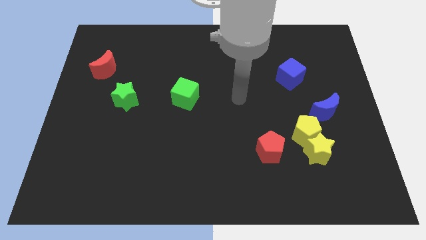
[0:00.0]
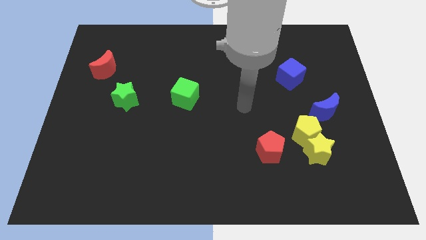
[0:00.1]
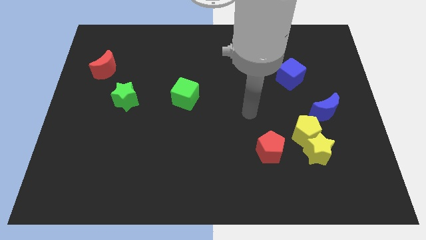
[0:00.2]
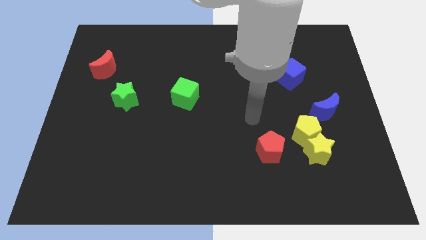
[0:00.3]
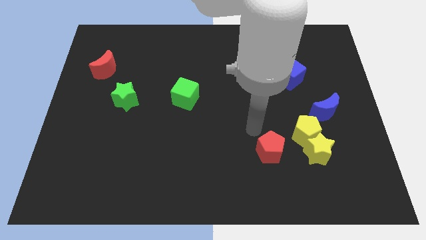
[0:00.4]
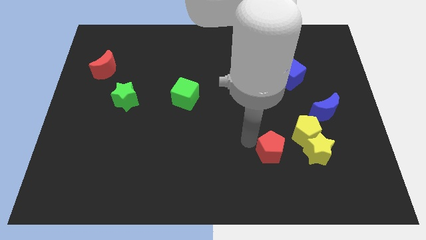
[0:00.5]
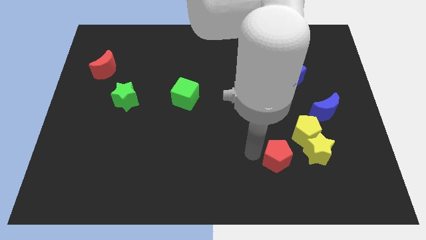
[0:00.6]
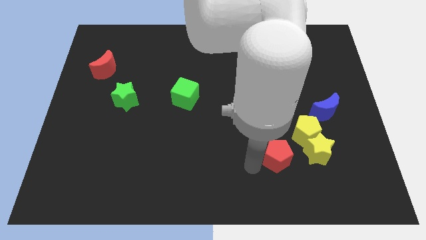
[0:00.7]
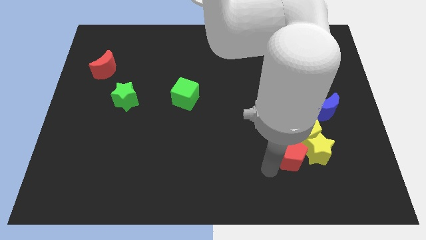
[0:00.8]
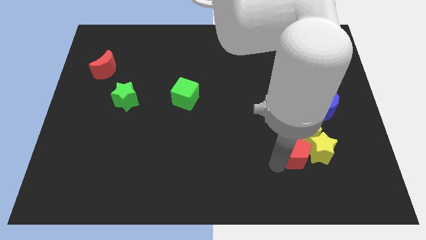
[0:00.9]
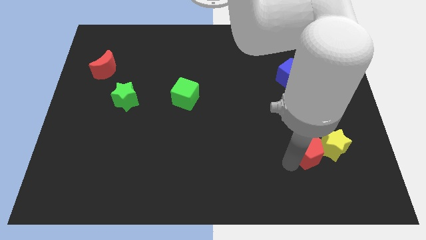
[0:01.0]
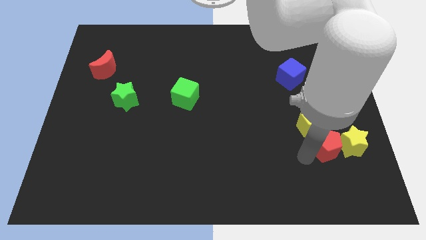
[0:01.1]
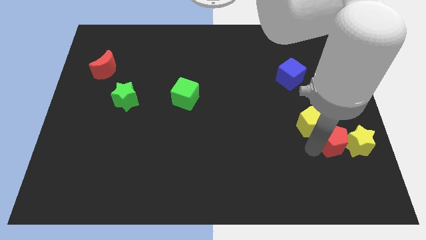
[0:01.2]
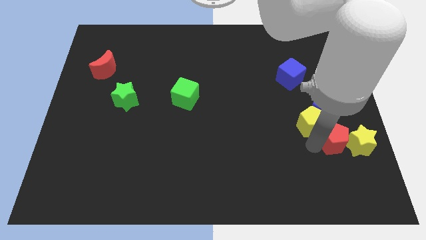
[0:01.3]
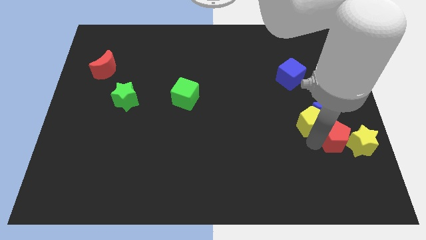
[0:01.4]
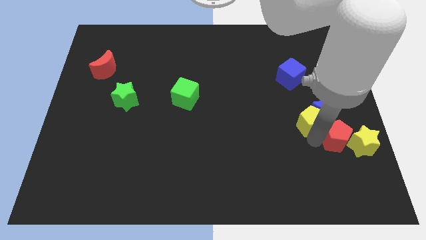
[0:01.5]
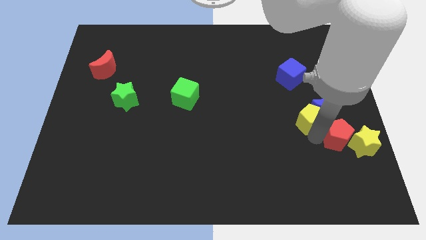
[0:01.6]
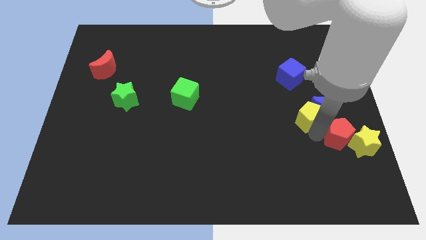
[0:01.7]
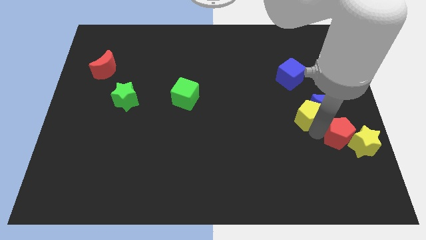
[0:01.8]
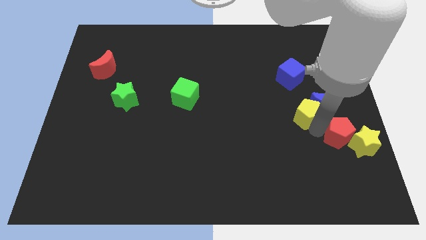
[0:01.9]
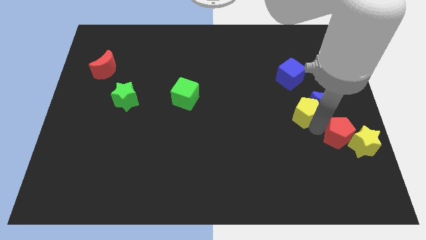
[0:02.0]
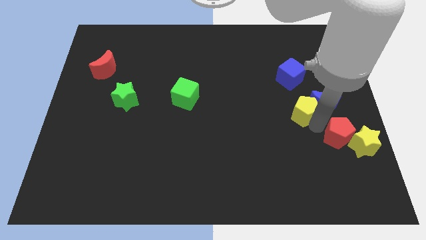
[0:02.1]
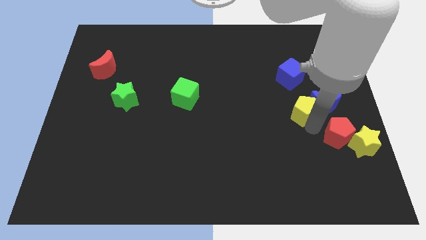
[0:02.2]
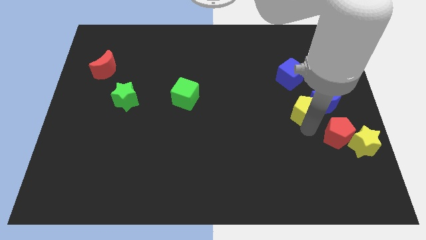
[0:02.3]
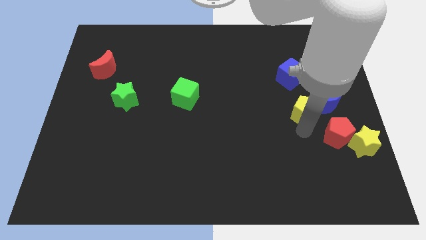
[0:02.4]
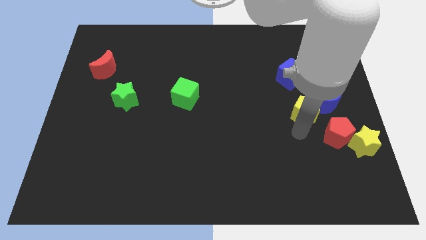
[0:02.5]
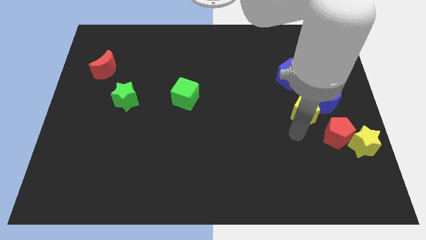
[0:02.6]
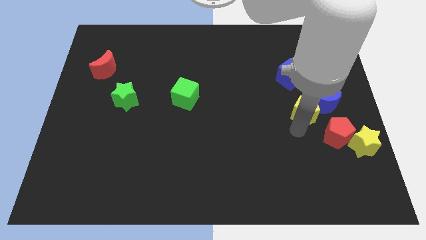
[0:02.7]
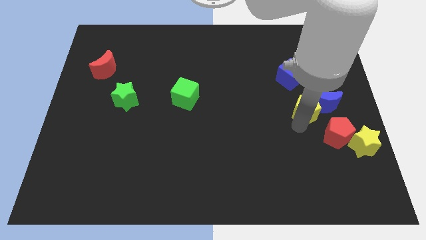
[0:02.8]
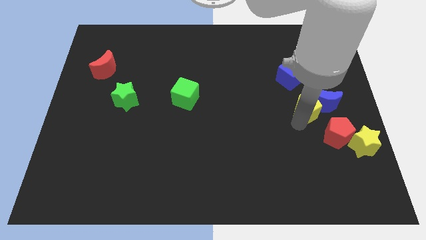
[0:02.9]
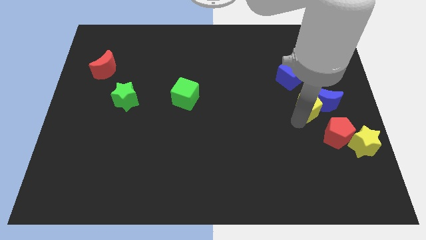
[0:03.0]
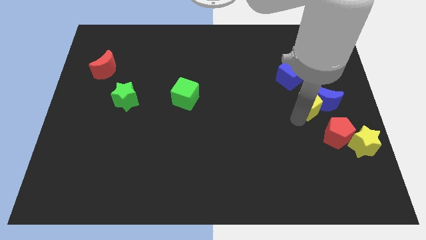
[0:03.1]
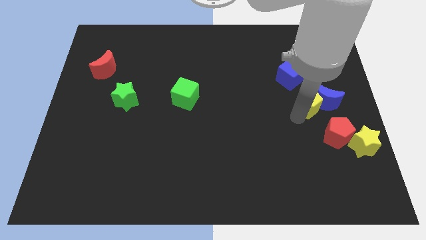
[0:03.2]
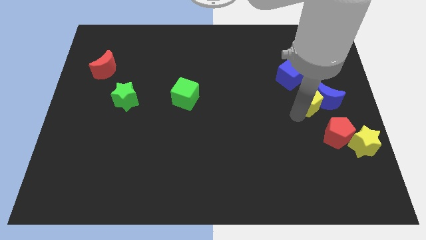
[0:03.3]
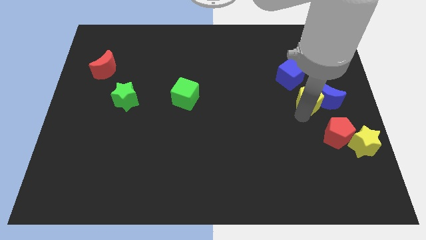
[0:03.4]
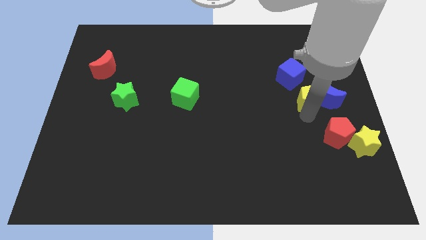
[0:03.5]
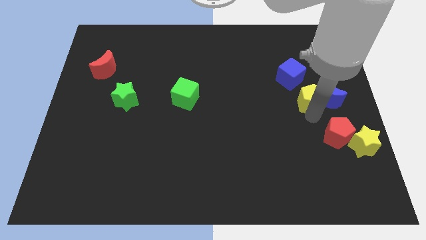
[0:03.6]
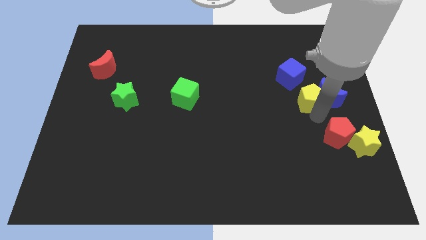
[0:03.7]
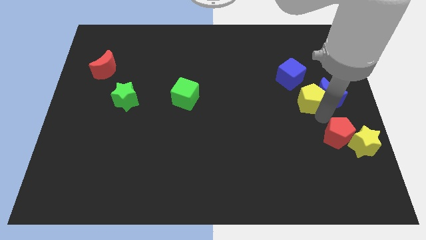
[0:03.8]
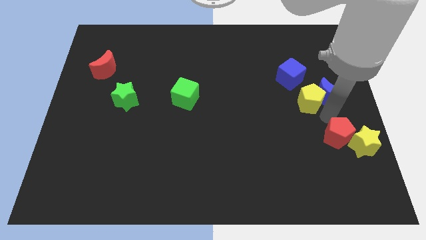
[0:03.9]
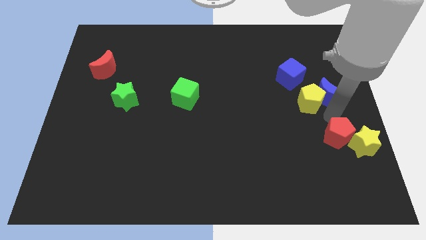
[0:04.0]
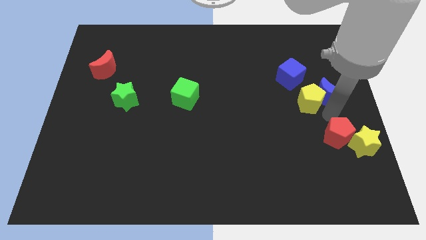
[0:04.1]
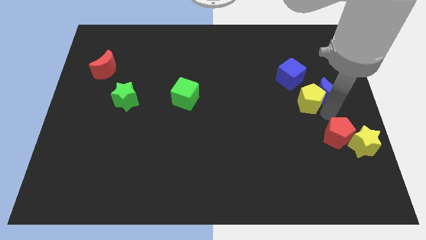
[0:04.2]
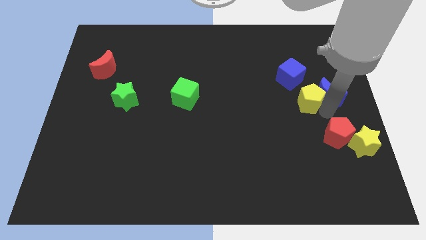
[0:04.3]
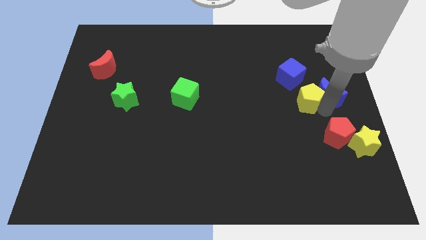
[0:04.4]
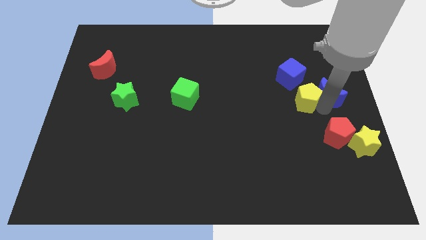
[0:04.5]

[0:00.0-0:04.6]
pull the yellow pentagon apart from the group

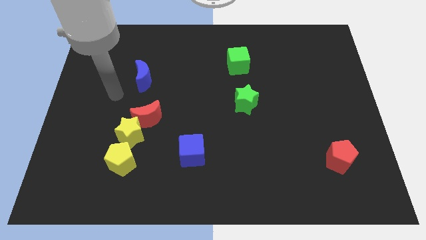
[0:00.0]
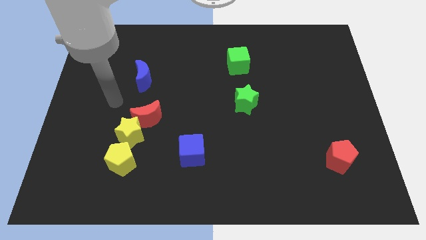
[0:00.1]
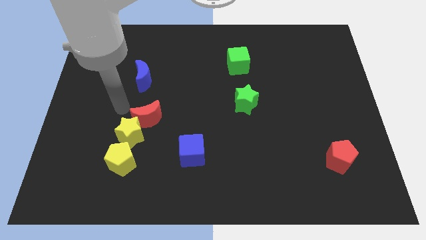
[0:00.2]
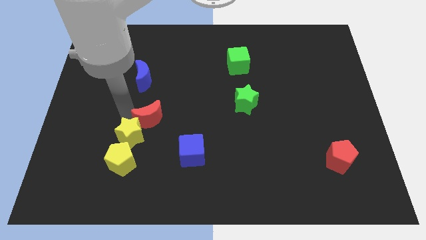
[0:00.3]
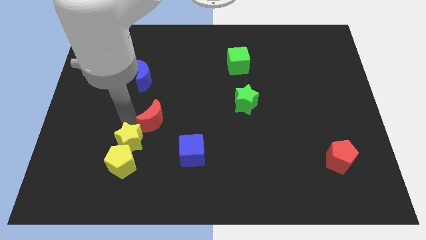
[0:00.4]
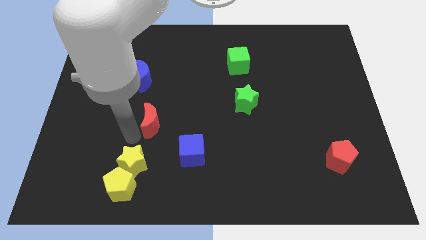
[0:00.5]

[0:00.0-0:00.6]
separate the red moon from the yellow star

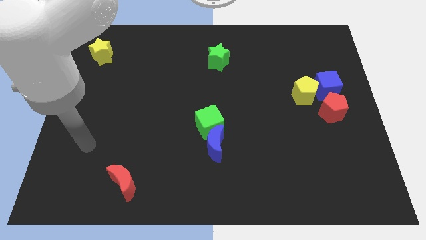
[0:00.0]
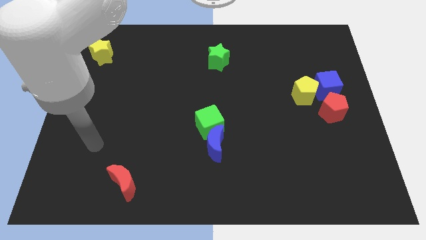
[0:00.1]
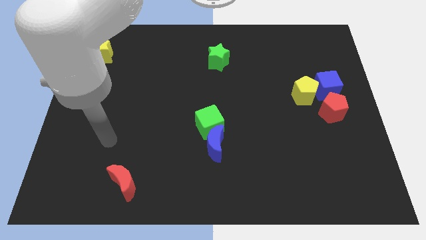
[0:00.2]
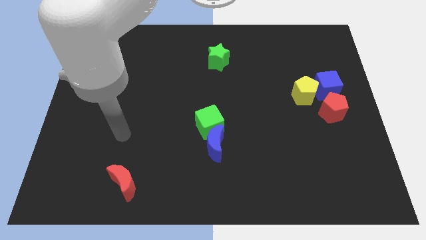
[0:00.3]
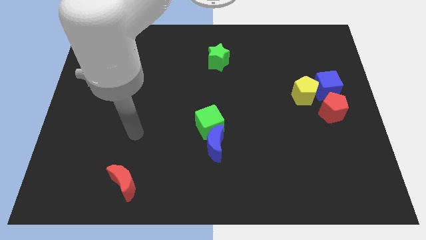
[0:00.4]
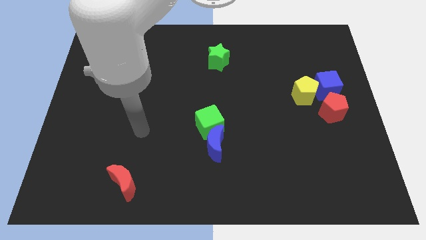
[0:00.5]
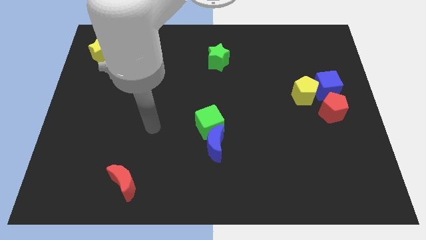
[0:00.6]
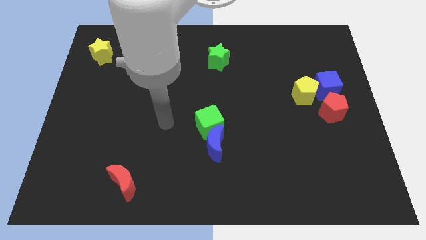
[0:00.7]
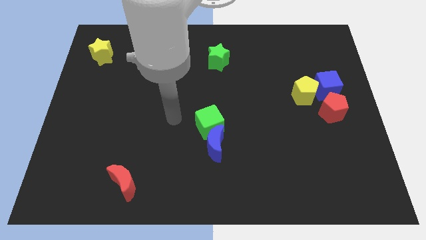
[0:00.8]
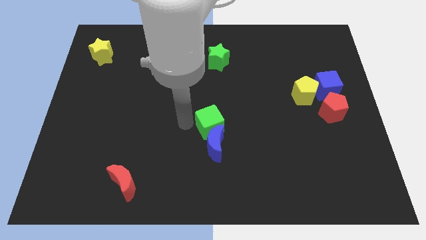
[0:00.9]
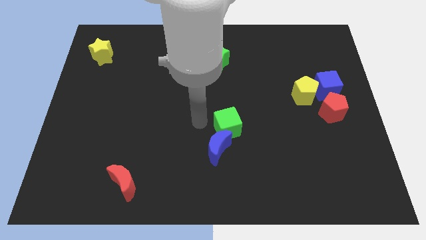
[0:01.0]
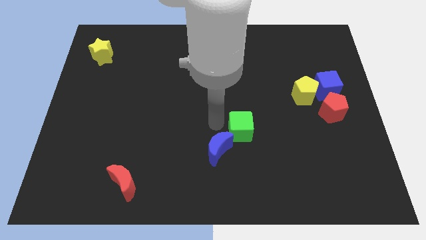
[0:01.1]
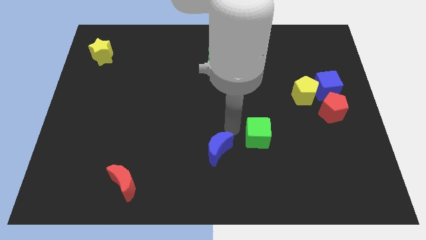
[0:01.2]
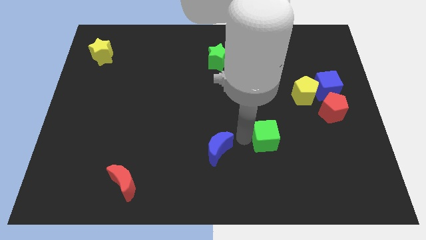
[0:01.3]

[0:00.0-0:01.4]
pull the blue moon apart from the green cube

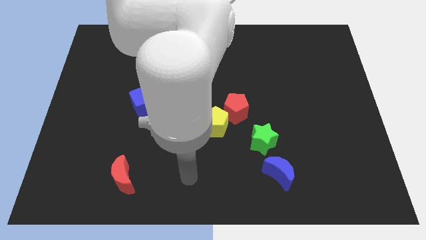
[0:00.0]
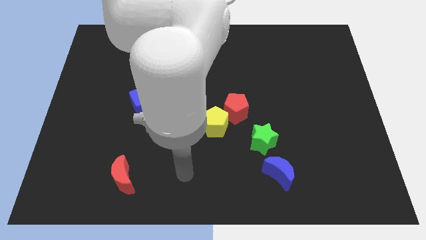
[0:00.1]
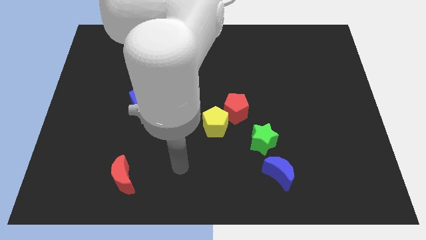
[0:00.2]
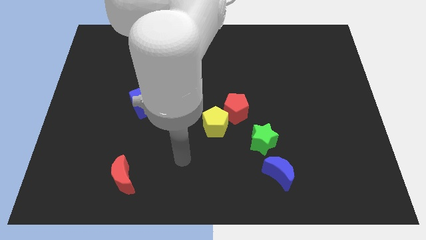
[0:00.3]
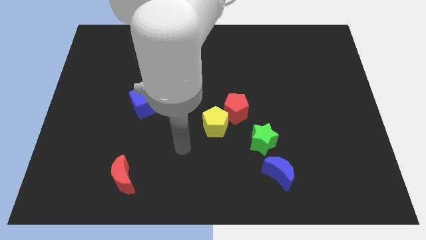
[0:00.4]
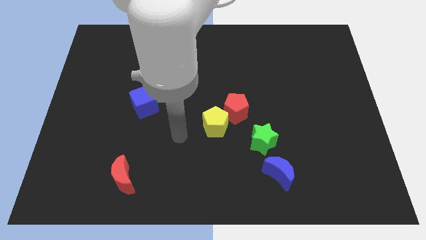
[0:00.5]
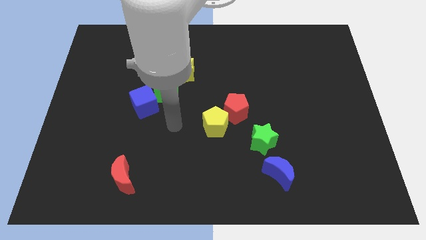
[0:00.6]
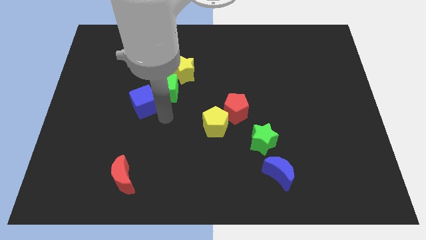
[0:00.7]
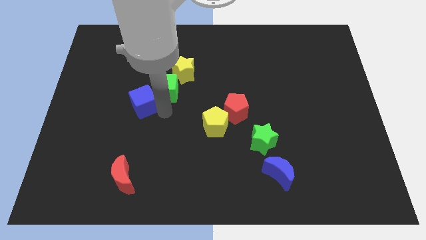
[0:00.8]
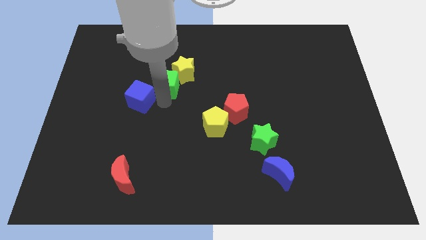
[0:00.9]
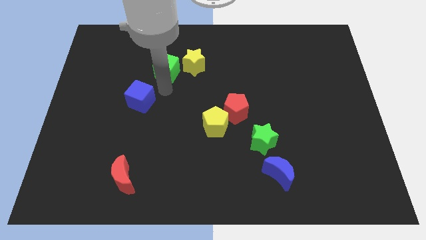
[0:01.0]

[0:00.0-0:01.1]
separate the blue cube from the green cube

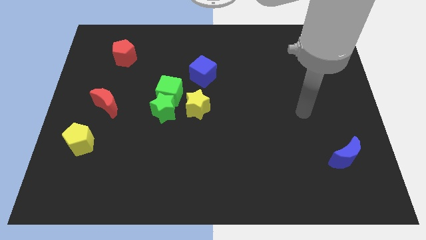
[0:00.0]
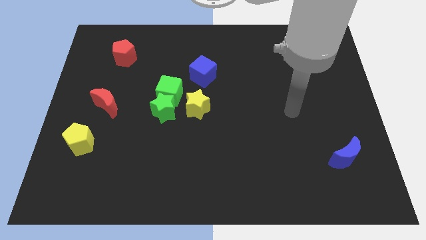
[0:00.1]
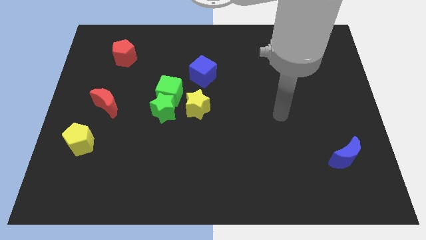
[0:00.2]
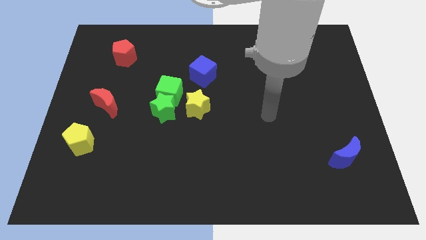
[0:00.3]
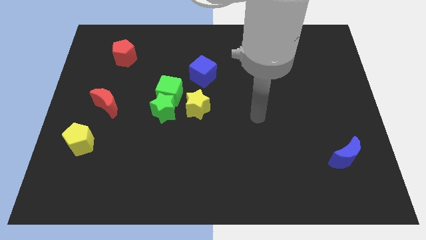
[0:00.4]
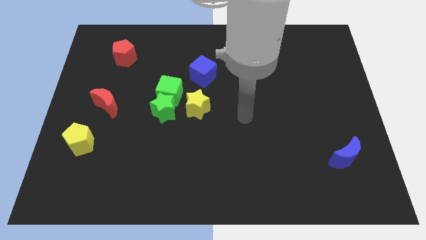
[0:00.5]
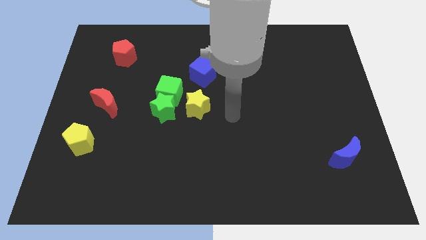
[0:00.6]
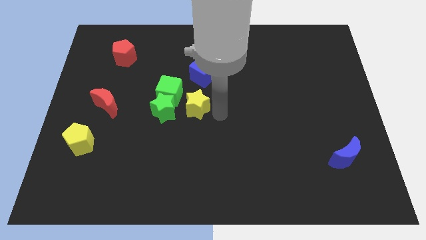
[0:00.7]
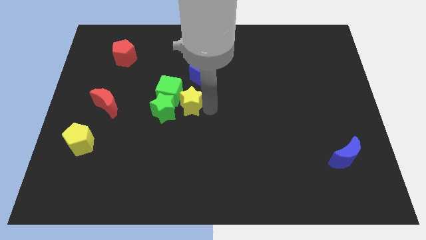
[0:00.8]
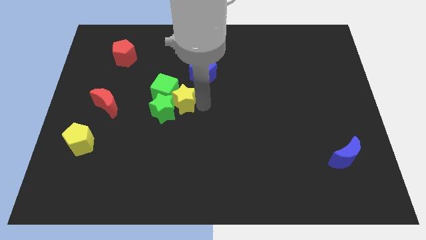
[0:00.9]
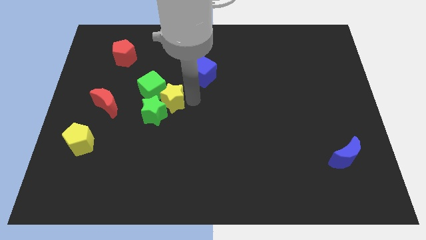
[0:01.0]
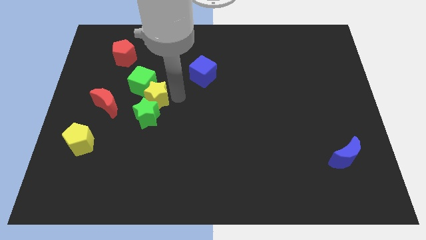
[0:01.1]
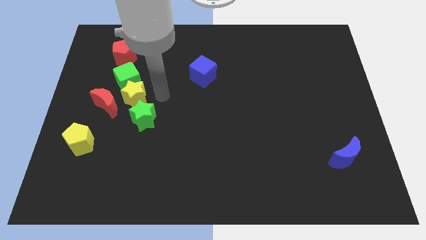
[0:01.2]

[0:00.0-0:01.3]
move the green star away from the green cube and yellow star

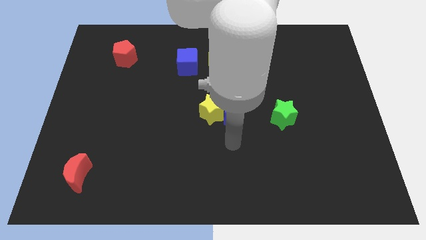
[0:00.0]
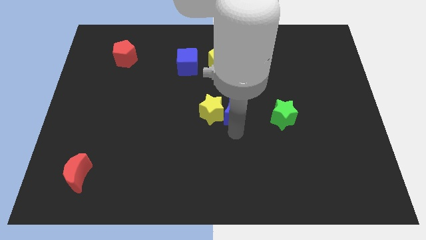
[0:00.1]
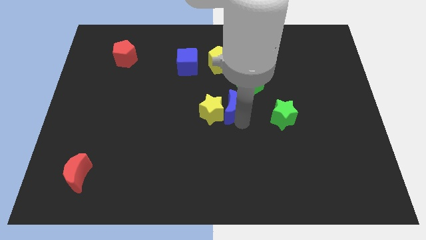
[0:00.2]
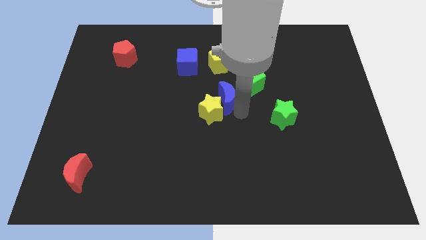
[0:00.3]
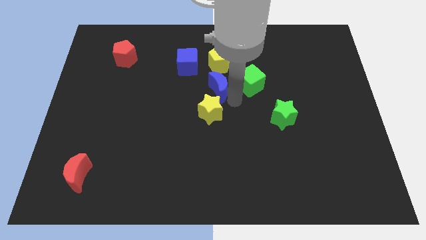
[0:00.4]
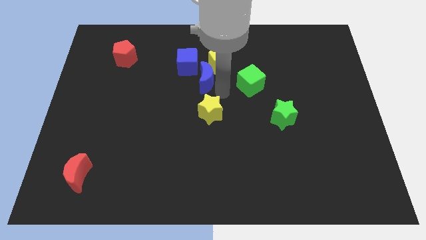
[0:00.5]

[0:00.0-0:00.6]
pull the yellow star apart from the blue moon
